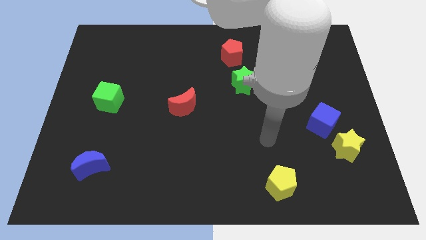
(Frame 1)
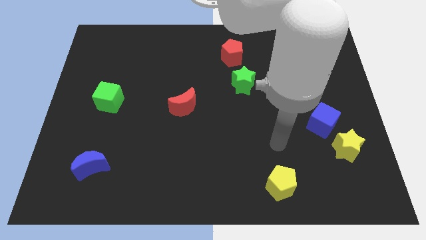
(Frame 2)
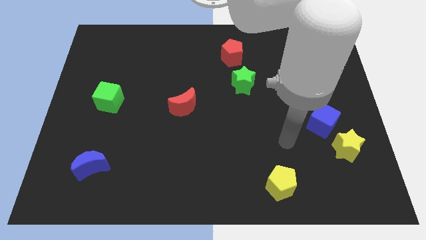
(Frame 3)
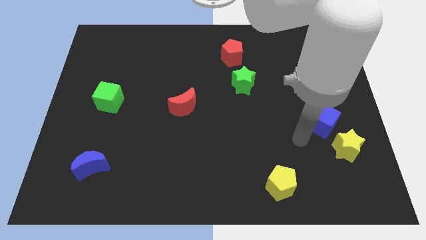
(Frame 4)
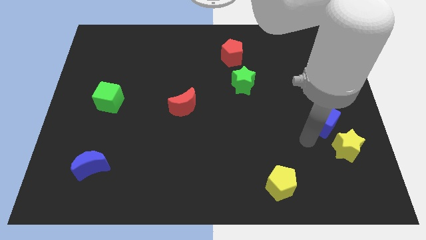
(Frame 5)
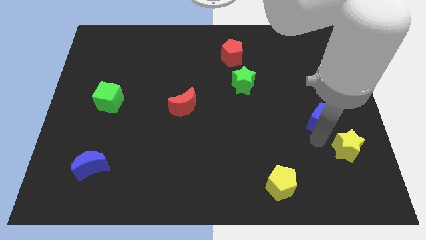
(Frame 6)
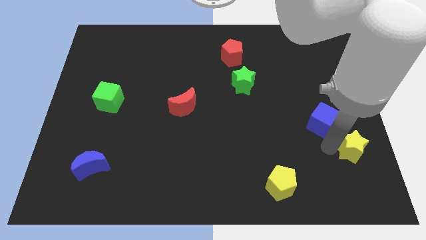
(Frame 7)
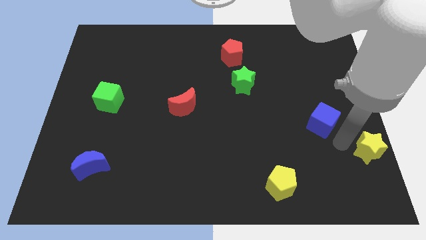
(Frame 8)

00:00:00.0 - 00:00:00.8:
move the blue cube away from the yellow star

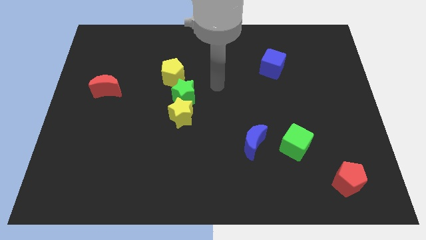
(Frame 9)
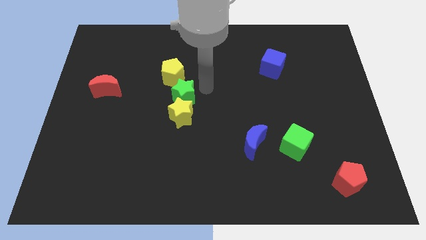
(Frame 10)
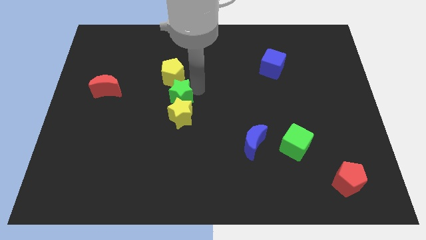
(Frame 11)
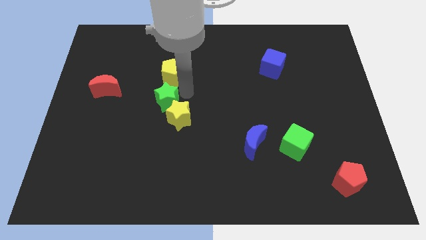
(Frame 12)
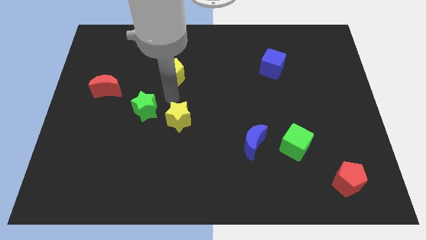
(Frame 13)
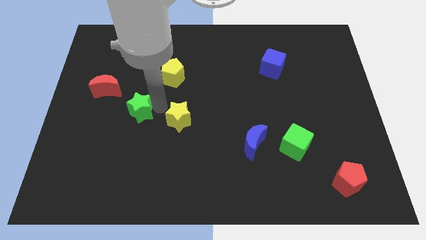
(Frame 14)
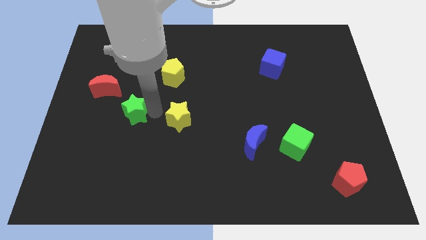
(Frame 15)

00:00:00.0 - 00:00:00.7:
pull the yellow star apart from the green star

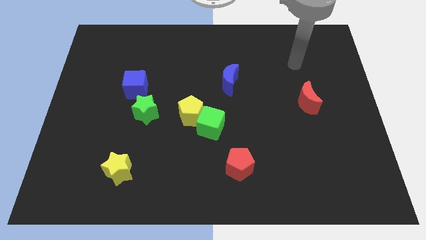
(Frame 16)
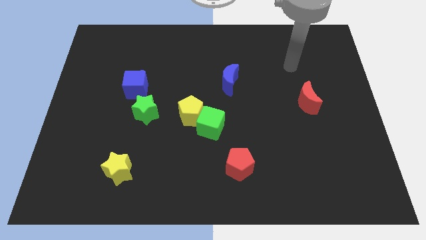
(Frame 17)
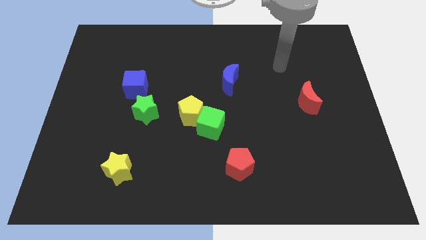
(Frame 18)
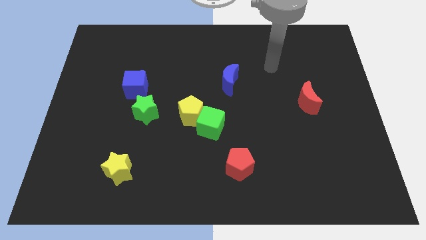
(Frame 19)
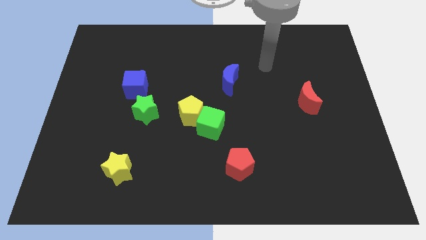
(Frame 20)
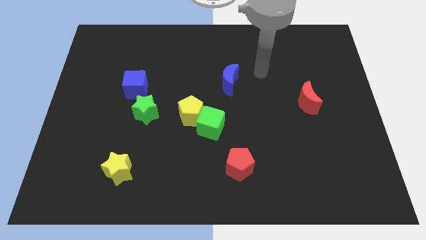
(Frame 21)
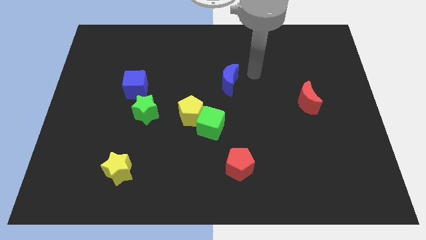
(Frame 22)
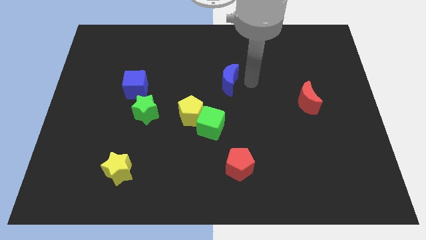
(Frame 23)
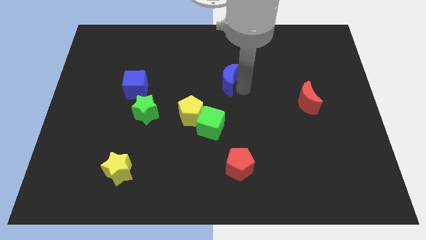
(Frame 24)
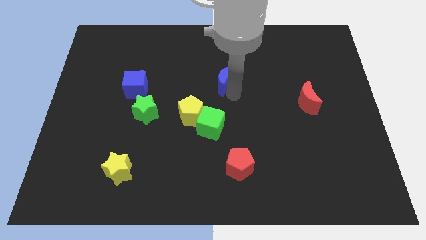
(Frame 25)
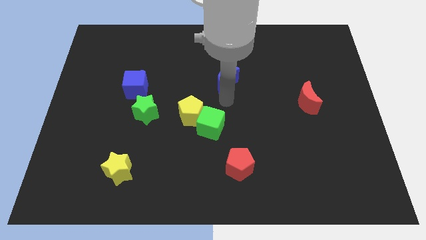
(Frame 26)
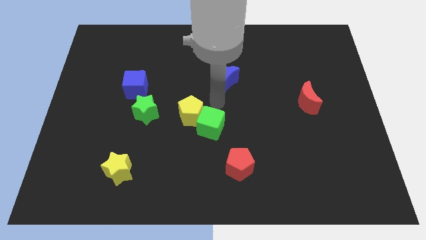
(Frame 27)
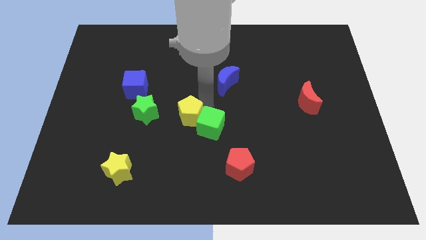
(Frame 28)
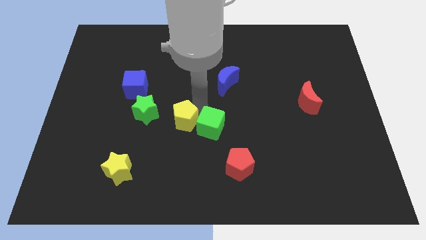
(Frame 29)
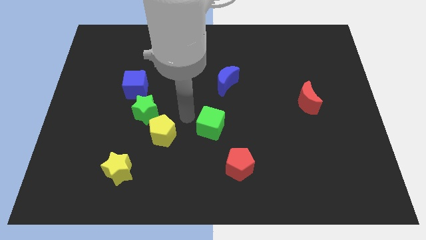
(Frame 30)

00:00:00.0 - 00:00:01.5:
pull the green cube apart from the yellow pentagon

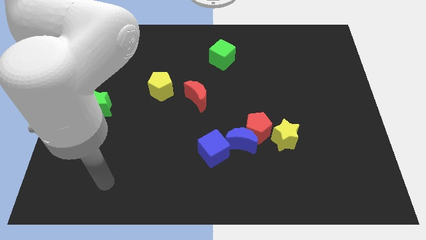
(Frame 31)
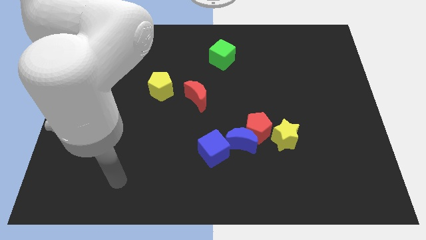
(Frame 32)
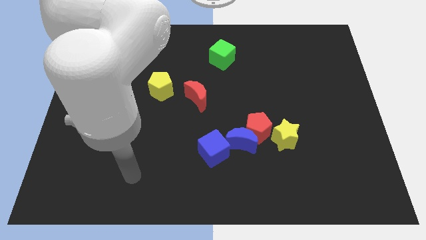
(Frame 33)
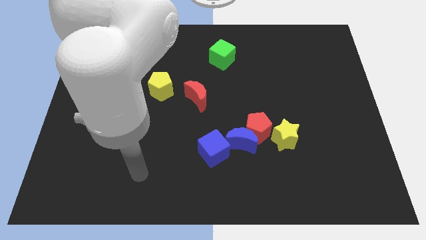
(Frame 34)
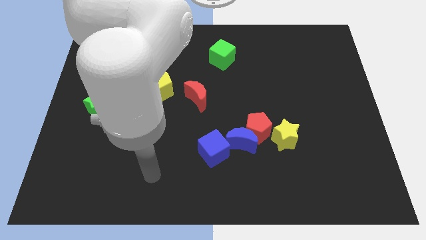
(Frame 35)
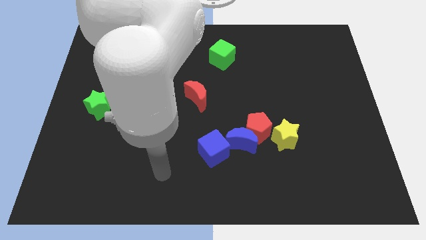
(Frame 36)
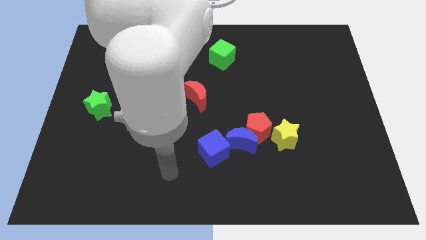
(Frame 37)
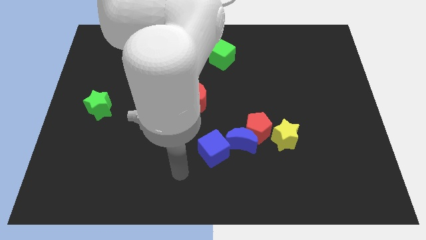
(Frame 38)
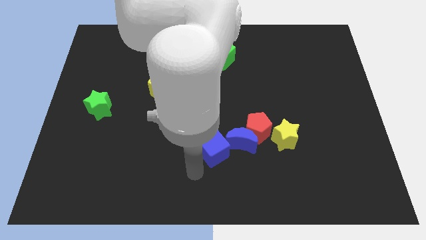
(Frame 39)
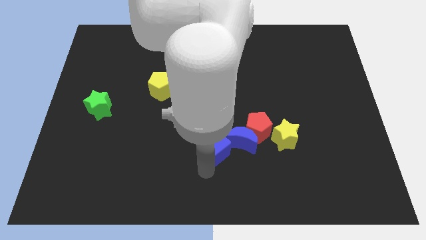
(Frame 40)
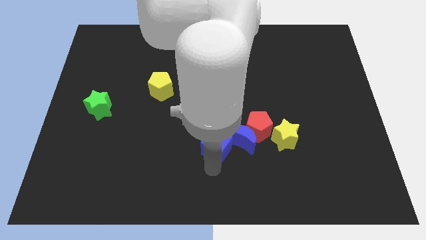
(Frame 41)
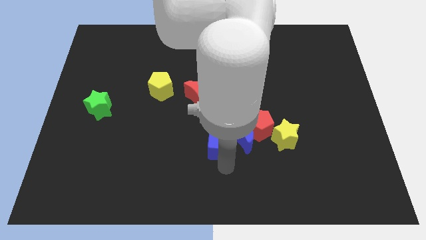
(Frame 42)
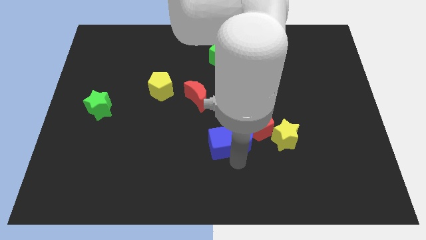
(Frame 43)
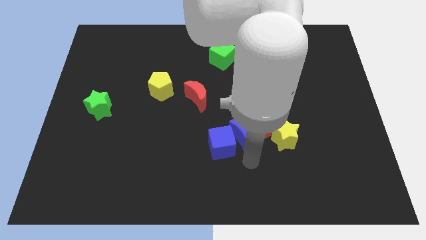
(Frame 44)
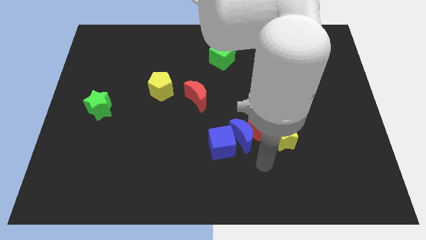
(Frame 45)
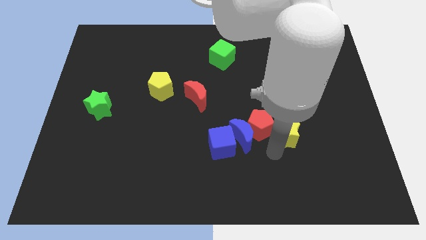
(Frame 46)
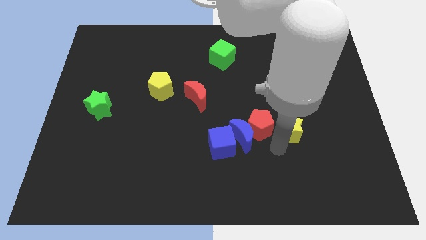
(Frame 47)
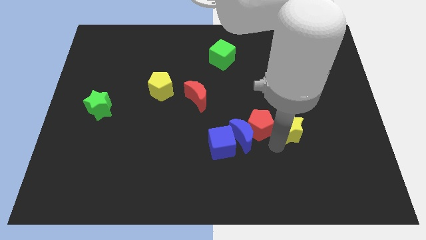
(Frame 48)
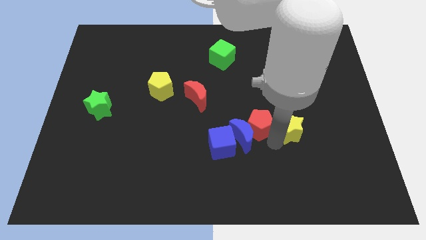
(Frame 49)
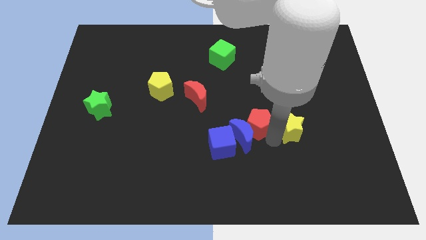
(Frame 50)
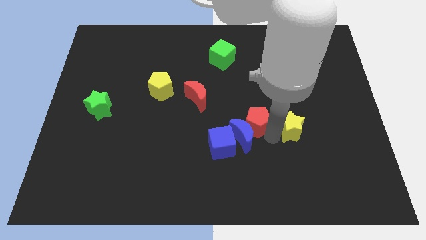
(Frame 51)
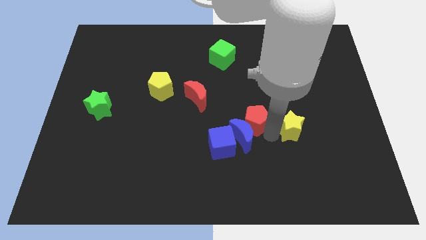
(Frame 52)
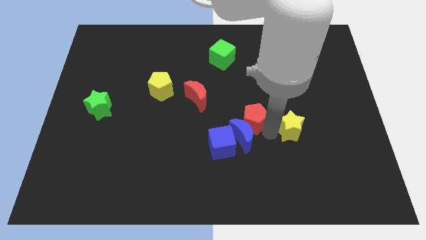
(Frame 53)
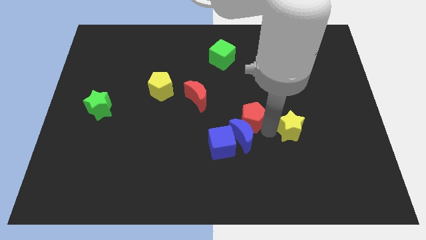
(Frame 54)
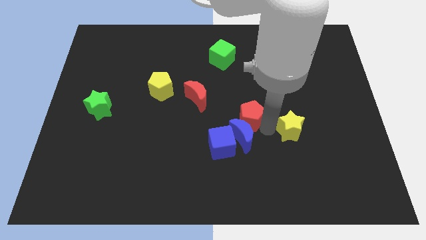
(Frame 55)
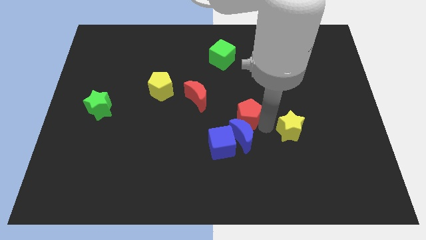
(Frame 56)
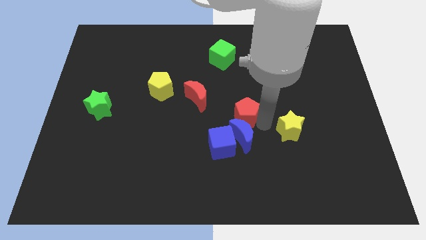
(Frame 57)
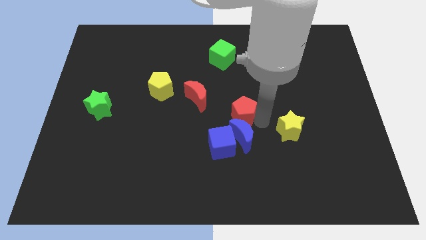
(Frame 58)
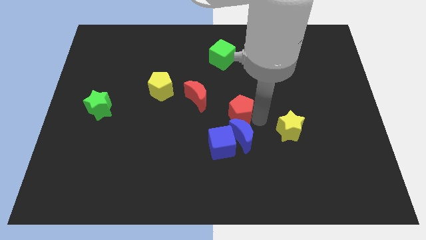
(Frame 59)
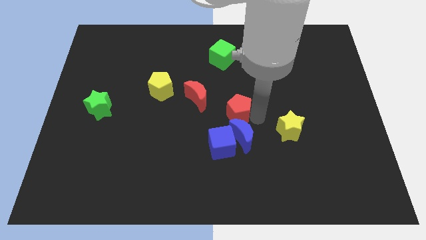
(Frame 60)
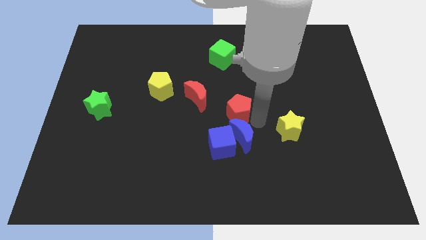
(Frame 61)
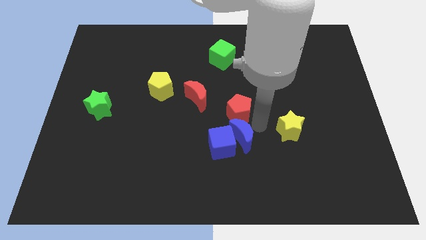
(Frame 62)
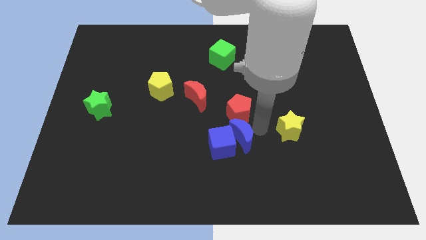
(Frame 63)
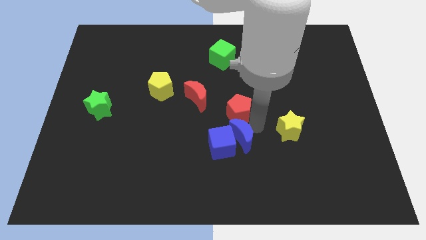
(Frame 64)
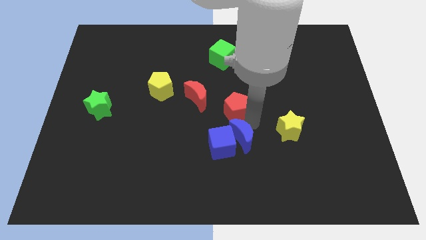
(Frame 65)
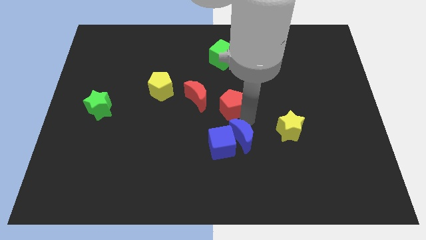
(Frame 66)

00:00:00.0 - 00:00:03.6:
move the red pentagon away from the blue moon and yellow star

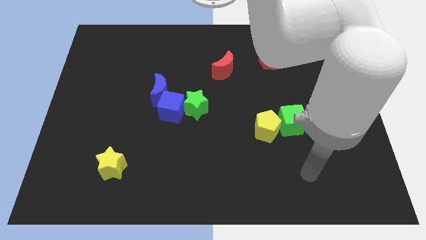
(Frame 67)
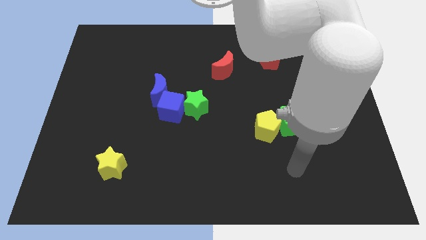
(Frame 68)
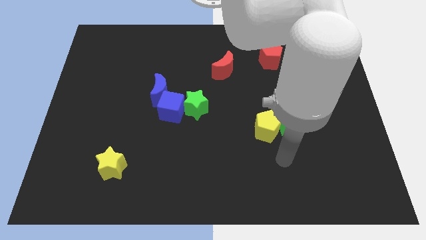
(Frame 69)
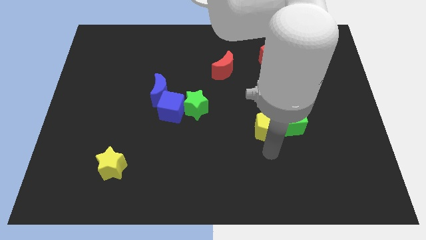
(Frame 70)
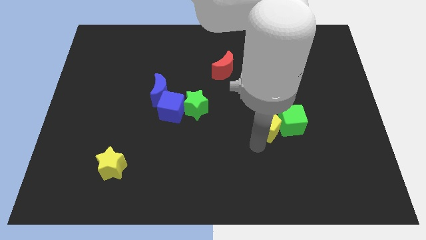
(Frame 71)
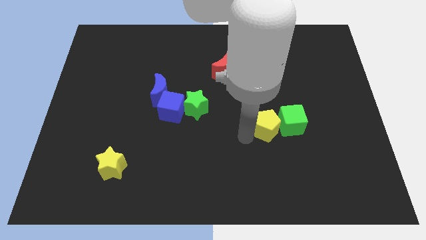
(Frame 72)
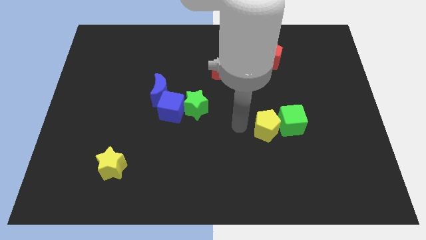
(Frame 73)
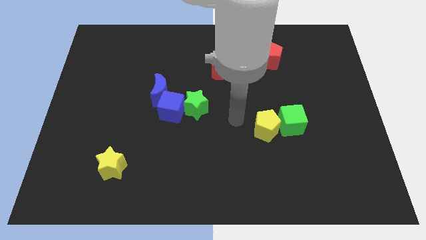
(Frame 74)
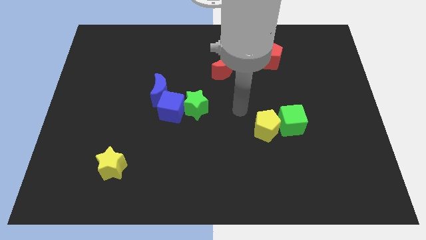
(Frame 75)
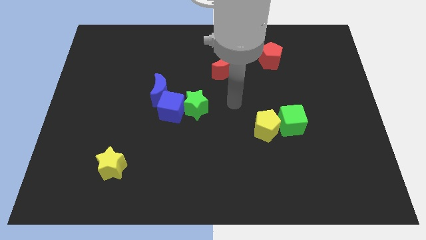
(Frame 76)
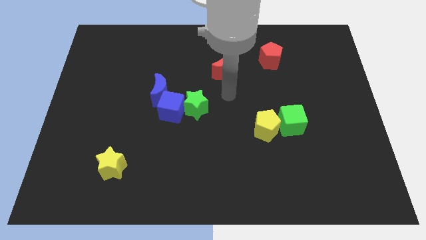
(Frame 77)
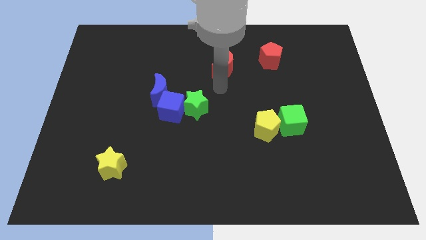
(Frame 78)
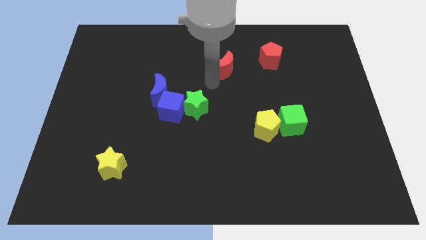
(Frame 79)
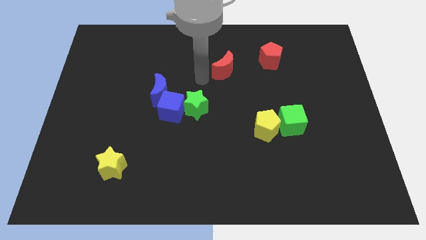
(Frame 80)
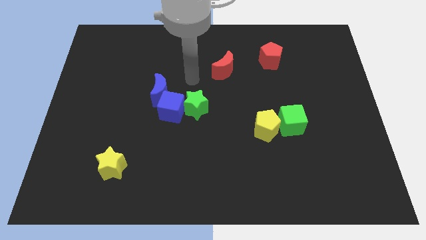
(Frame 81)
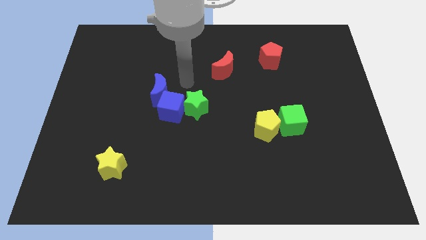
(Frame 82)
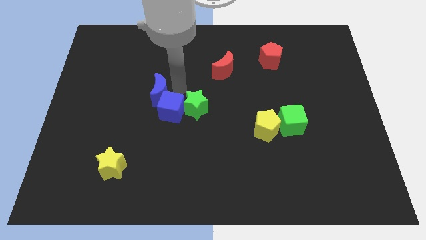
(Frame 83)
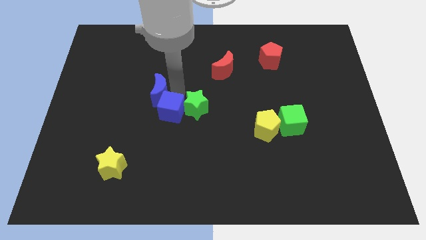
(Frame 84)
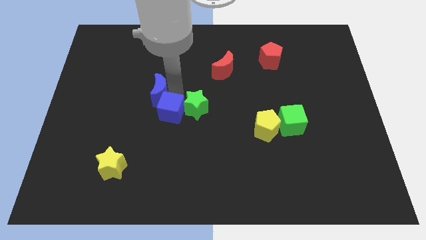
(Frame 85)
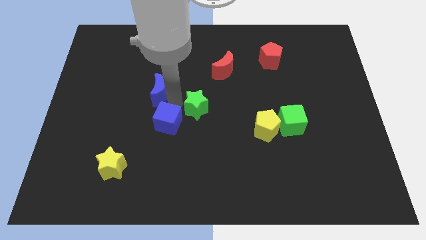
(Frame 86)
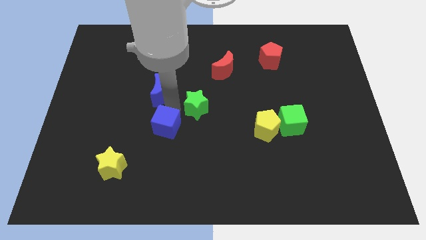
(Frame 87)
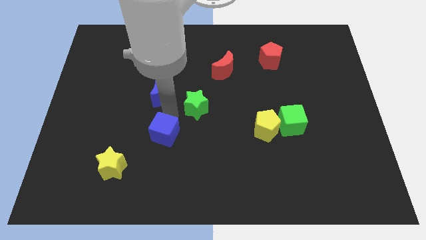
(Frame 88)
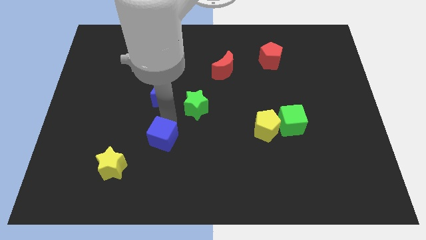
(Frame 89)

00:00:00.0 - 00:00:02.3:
move the blue cube away from the green star and blue moon

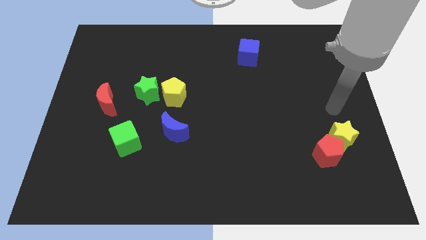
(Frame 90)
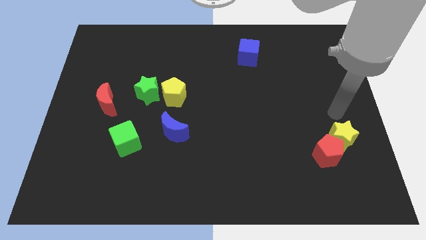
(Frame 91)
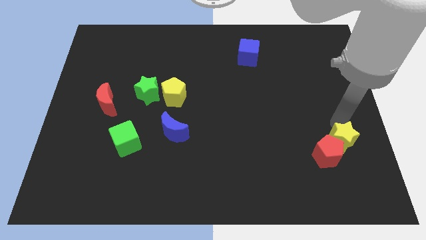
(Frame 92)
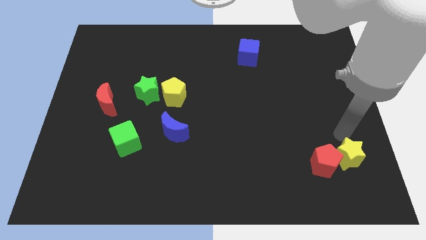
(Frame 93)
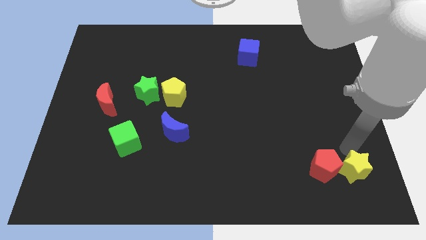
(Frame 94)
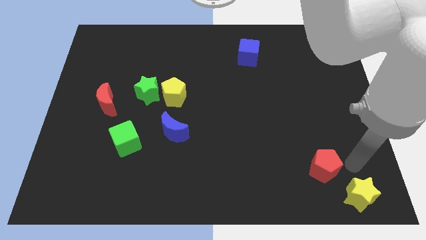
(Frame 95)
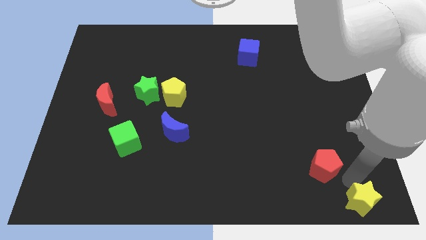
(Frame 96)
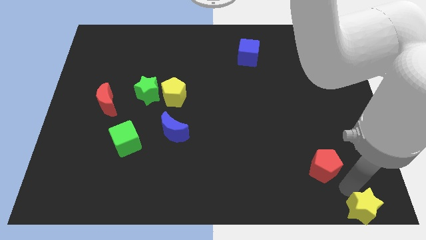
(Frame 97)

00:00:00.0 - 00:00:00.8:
move the red pentagon away from the yellow star
